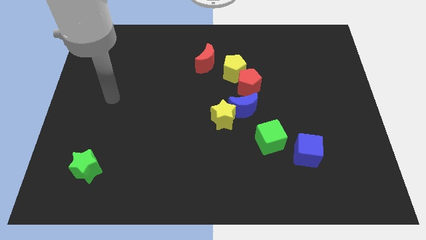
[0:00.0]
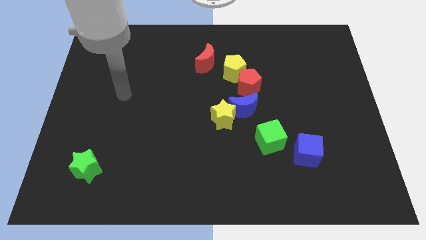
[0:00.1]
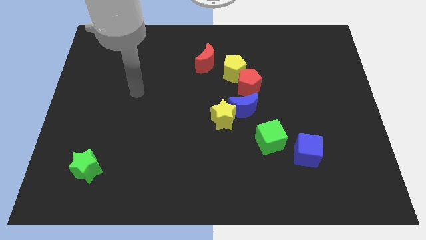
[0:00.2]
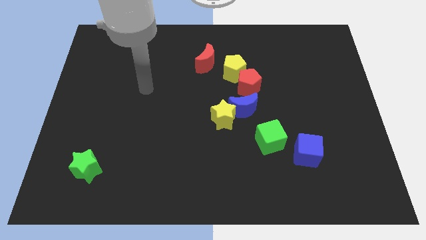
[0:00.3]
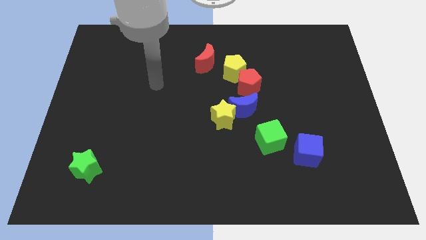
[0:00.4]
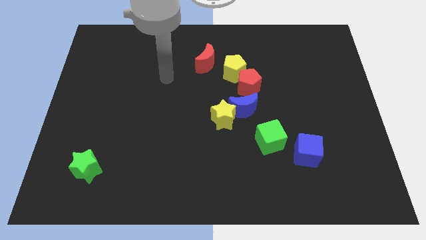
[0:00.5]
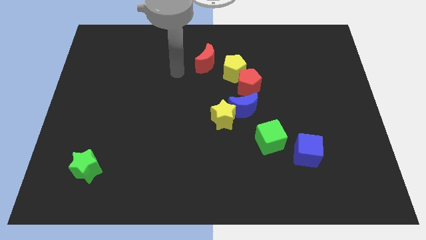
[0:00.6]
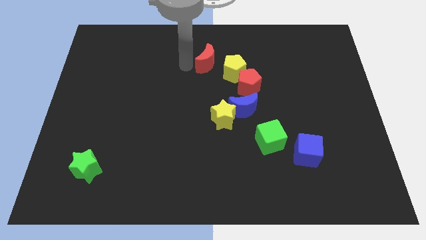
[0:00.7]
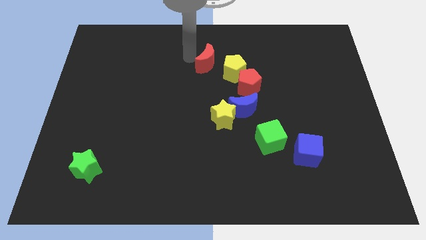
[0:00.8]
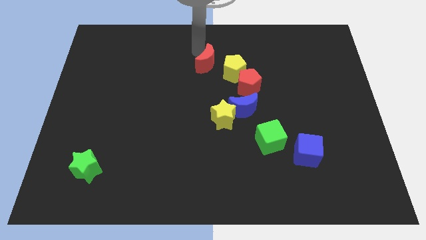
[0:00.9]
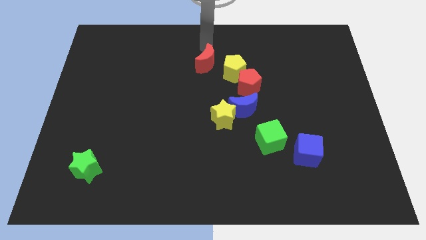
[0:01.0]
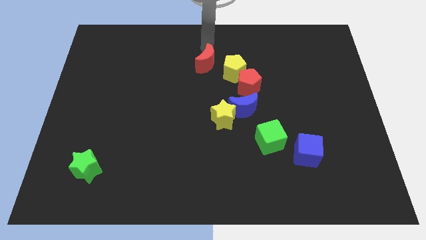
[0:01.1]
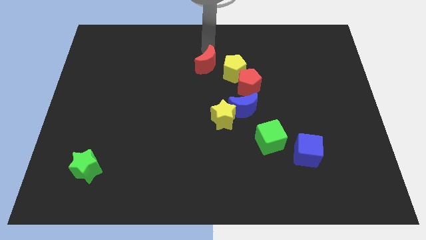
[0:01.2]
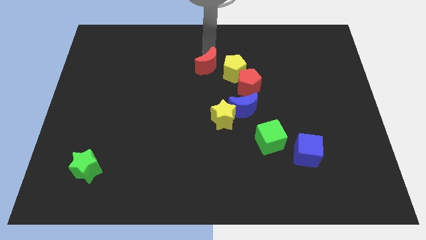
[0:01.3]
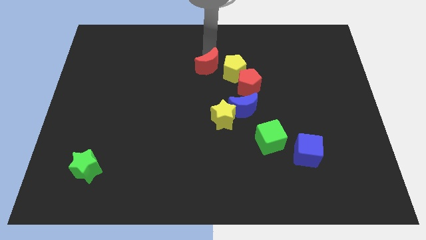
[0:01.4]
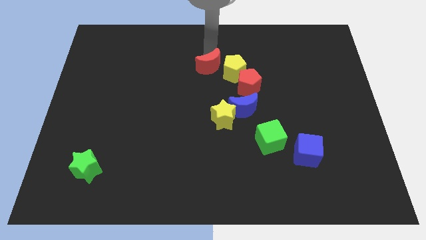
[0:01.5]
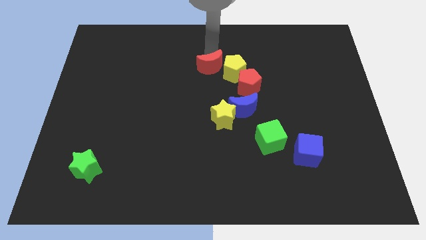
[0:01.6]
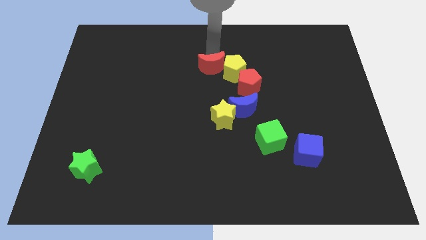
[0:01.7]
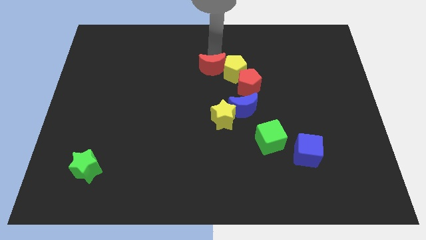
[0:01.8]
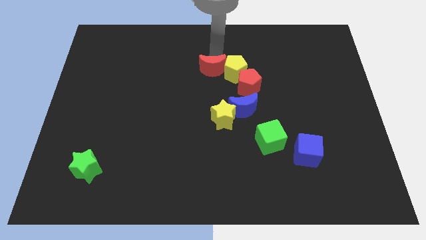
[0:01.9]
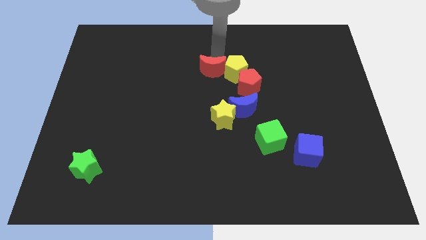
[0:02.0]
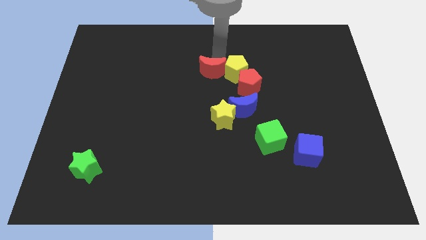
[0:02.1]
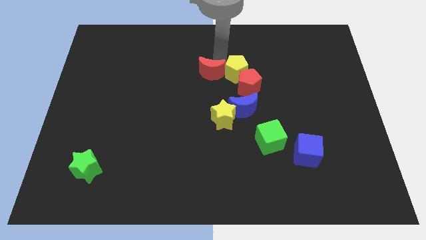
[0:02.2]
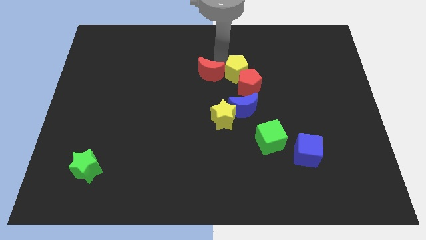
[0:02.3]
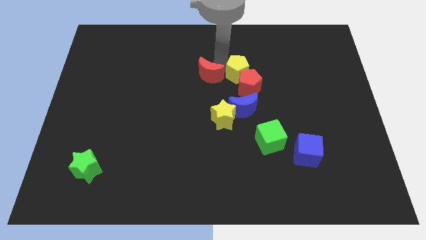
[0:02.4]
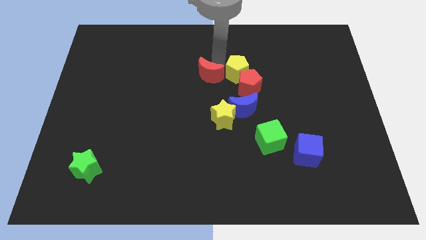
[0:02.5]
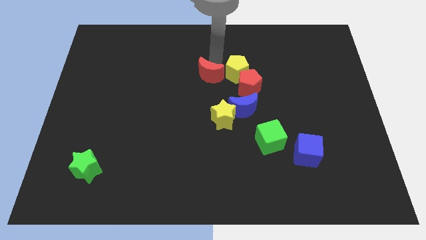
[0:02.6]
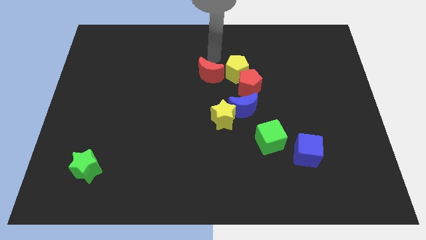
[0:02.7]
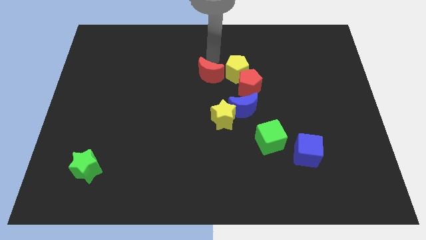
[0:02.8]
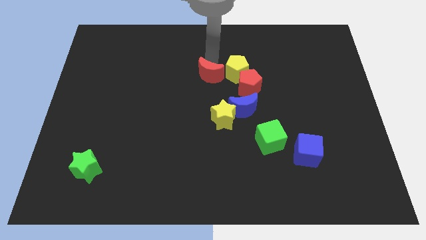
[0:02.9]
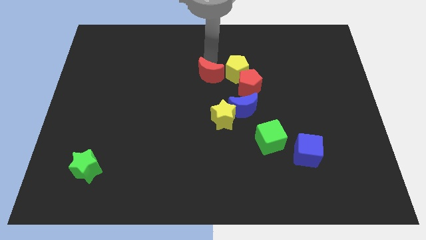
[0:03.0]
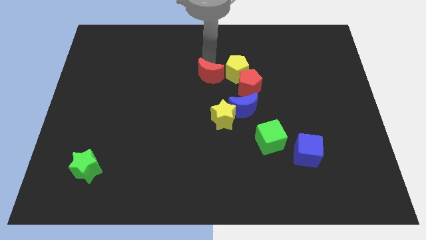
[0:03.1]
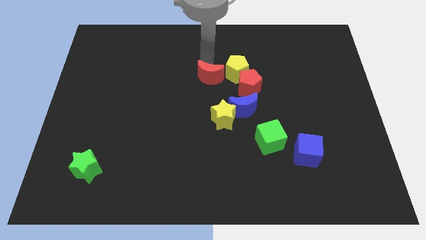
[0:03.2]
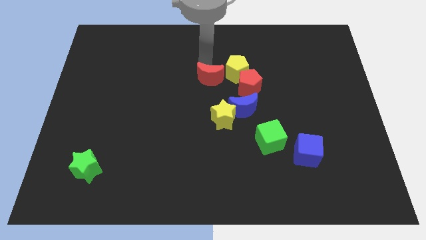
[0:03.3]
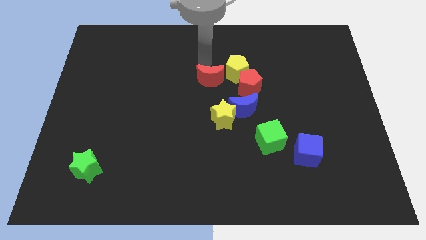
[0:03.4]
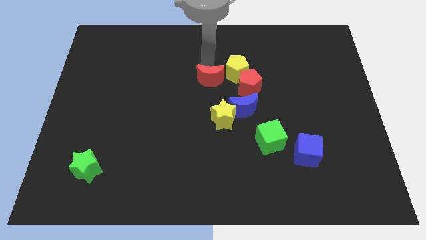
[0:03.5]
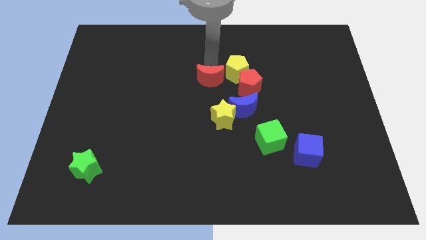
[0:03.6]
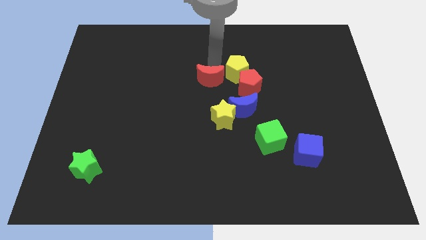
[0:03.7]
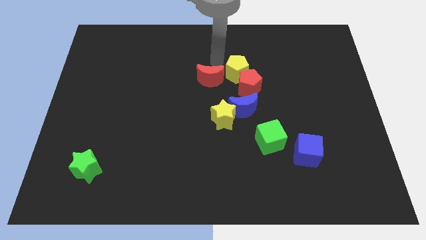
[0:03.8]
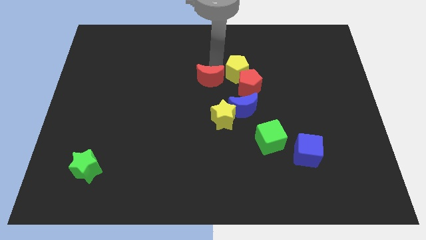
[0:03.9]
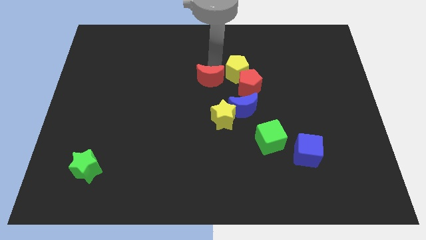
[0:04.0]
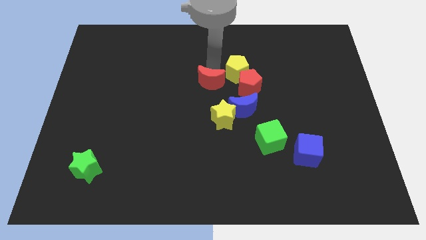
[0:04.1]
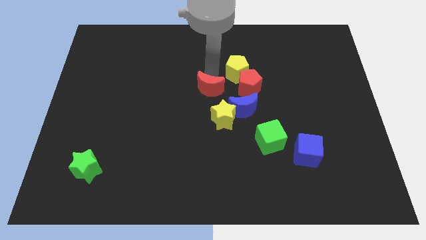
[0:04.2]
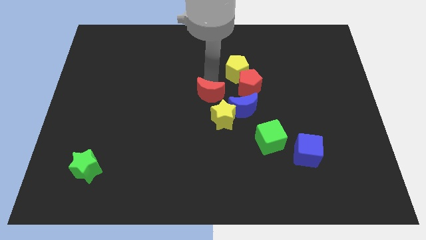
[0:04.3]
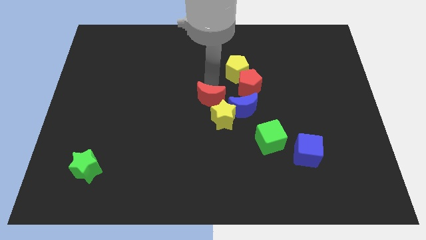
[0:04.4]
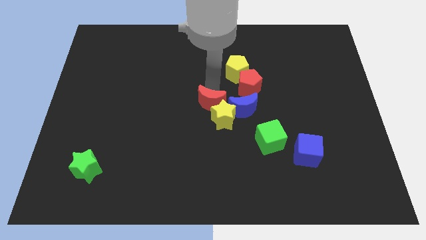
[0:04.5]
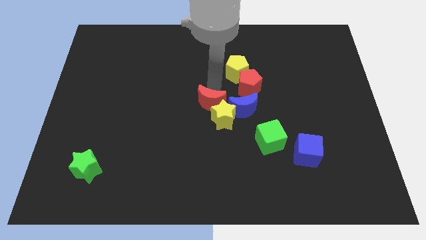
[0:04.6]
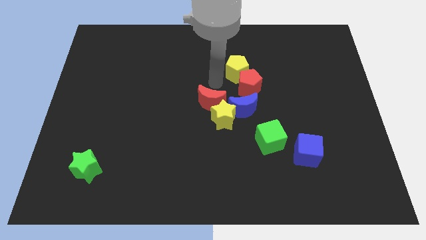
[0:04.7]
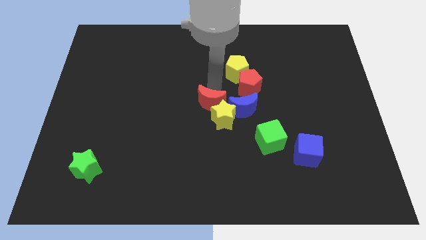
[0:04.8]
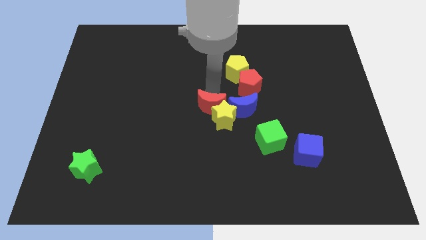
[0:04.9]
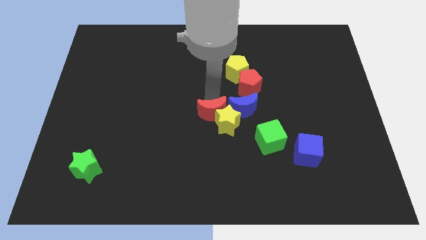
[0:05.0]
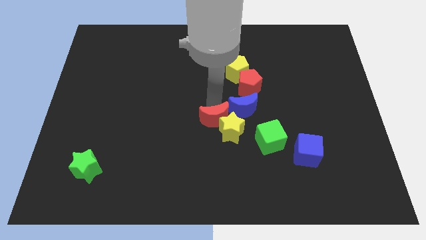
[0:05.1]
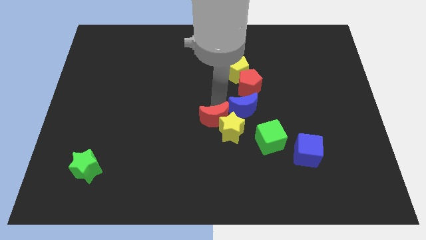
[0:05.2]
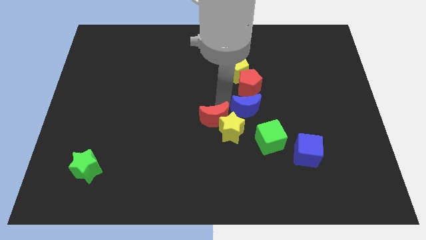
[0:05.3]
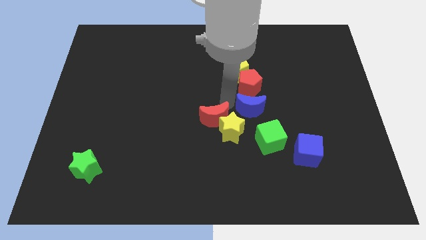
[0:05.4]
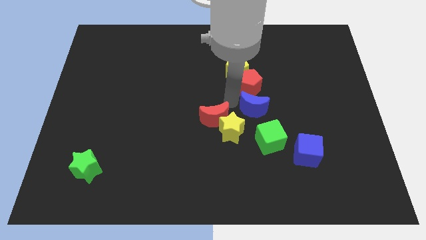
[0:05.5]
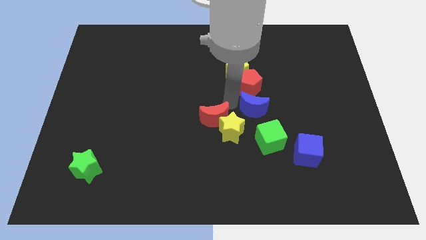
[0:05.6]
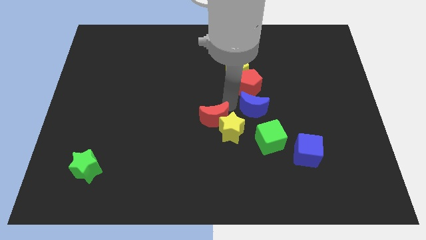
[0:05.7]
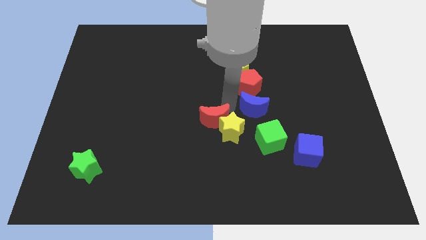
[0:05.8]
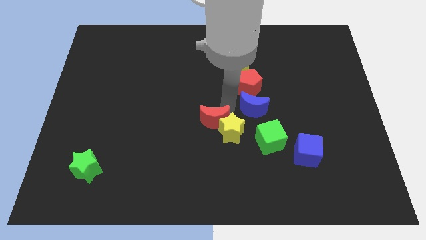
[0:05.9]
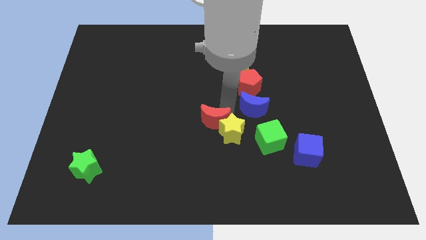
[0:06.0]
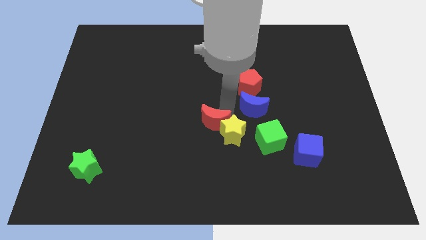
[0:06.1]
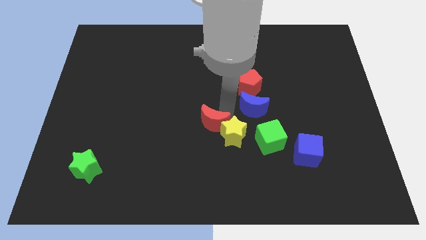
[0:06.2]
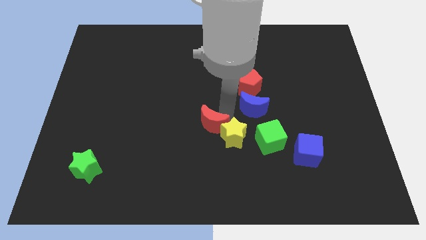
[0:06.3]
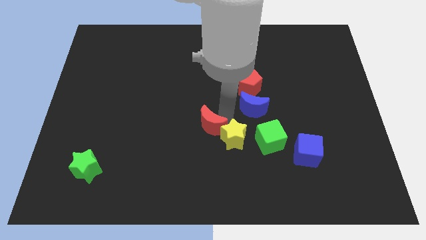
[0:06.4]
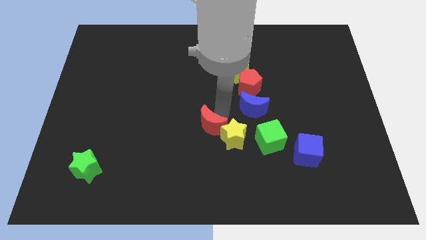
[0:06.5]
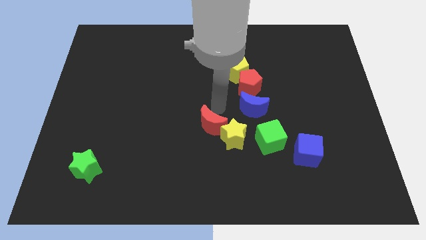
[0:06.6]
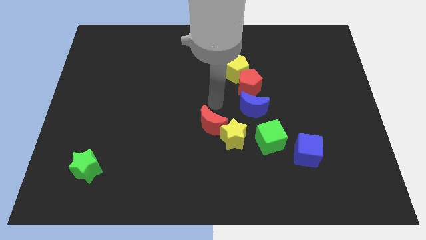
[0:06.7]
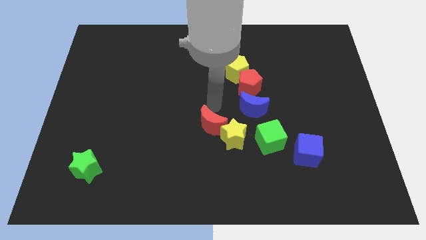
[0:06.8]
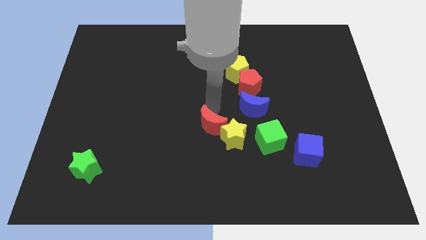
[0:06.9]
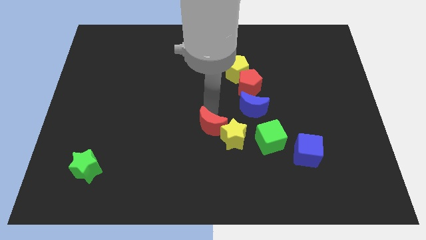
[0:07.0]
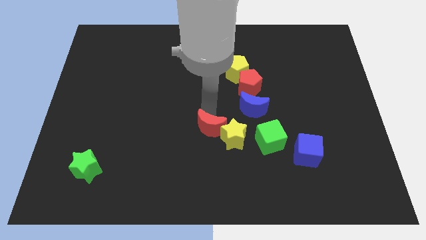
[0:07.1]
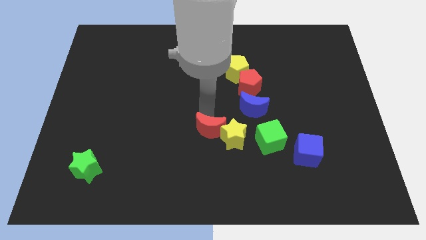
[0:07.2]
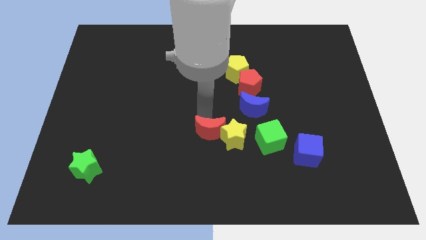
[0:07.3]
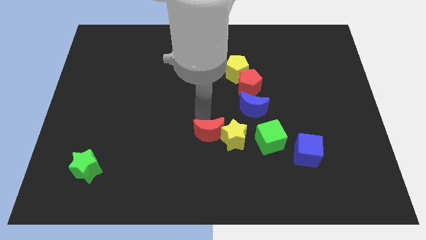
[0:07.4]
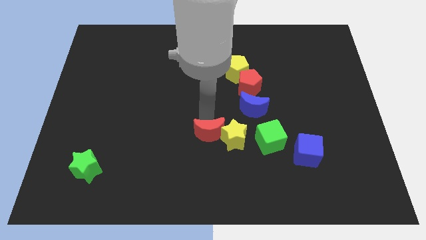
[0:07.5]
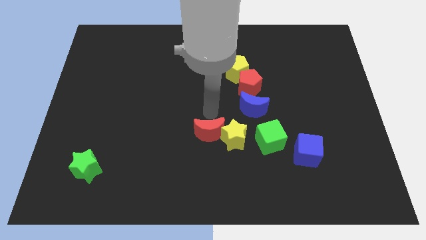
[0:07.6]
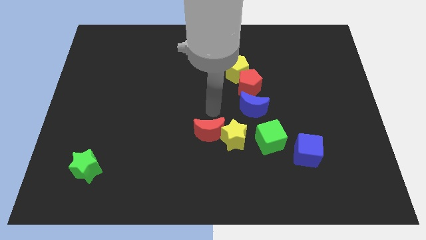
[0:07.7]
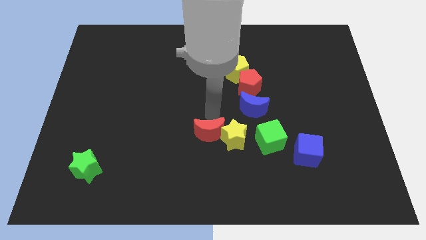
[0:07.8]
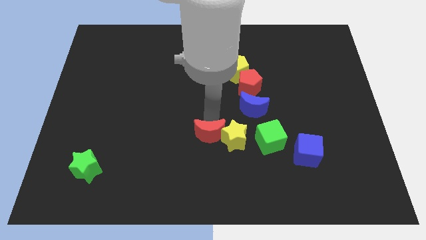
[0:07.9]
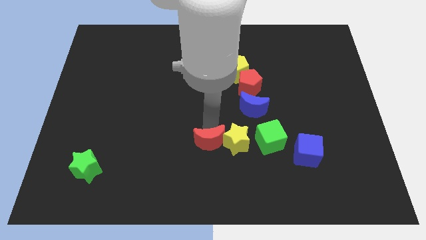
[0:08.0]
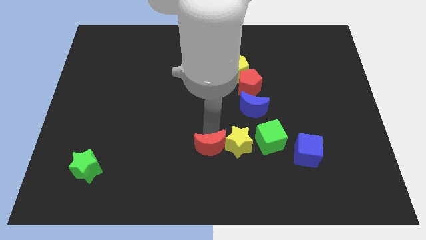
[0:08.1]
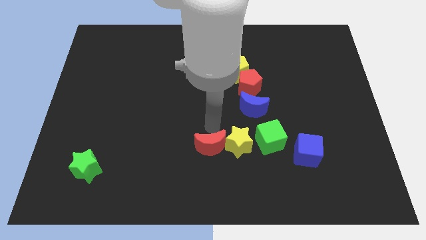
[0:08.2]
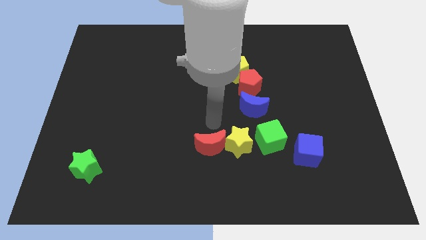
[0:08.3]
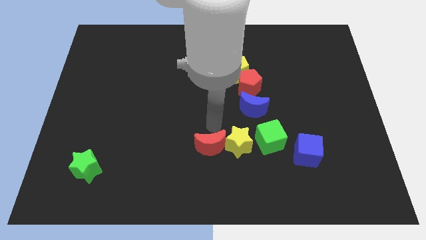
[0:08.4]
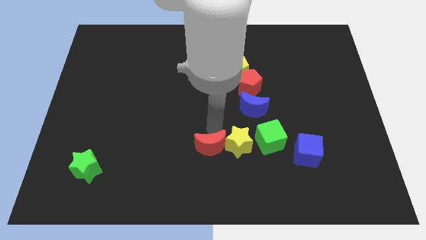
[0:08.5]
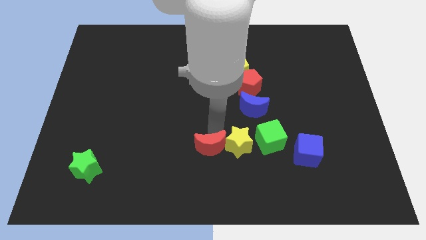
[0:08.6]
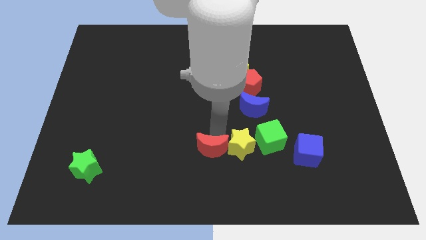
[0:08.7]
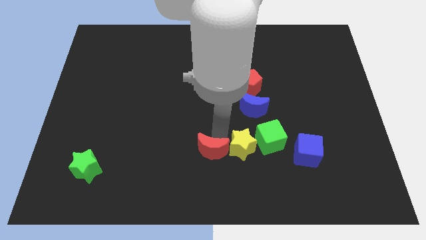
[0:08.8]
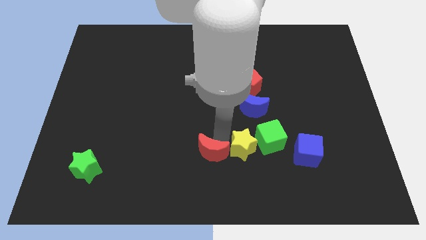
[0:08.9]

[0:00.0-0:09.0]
put the red moon to the bottom
